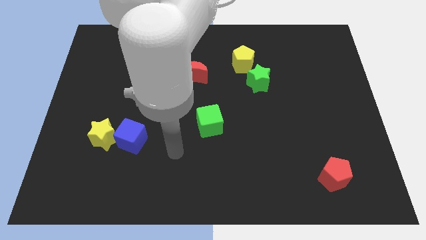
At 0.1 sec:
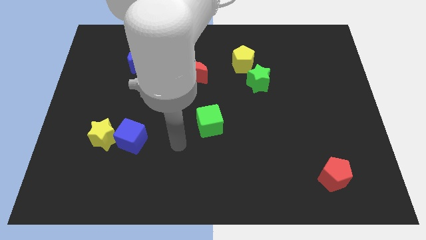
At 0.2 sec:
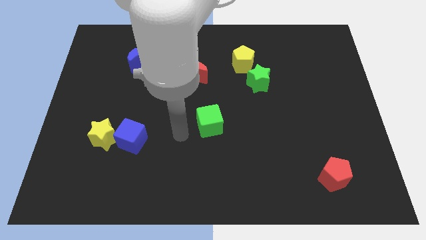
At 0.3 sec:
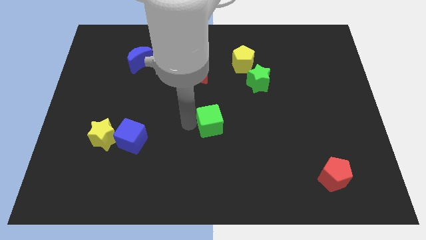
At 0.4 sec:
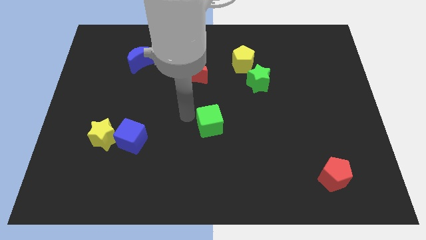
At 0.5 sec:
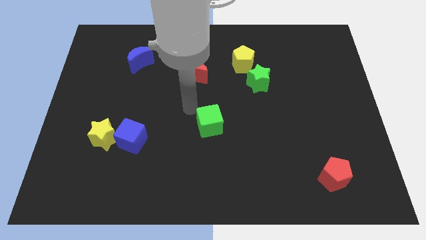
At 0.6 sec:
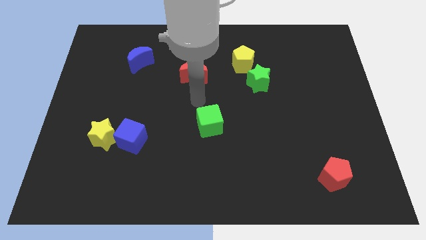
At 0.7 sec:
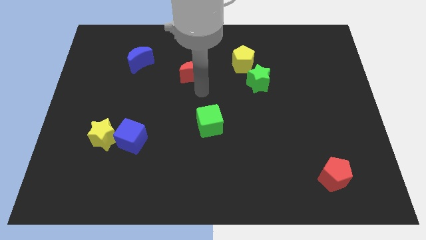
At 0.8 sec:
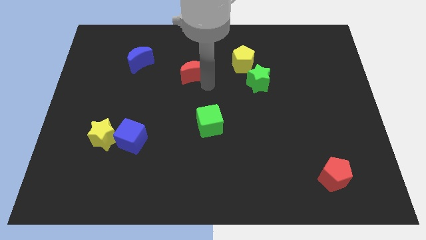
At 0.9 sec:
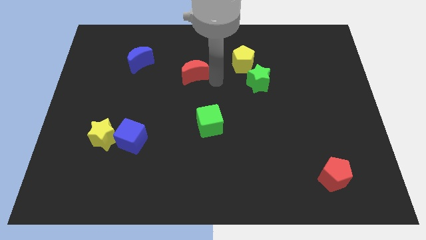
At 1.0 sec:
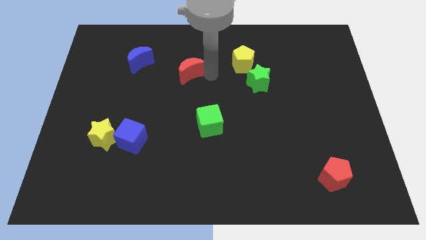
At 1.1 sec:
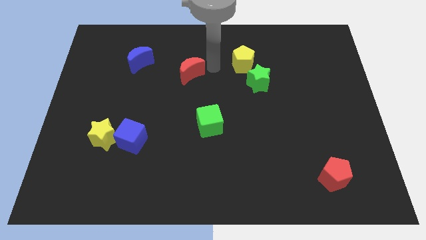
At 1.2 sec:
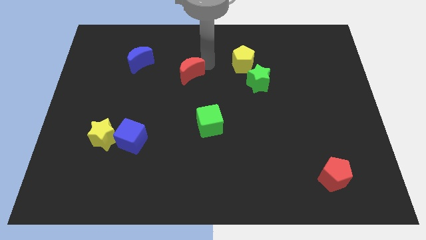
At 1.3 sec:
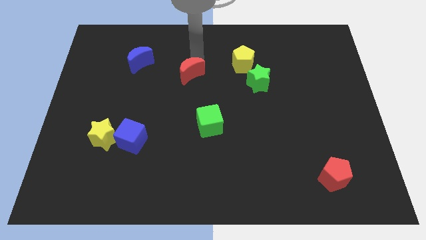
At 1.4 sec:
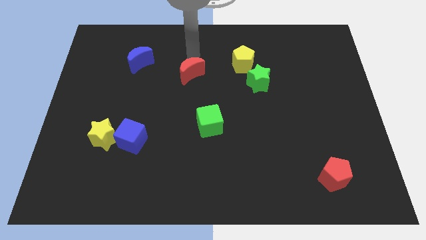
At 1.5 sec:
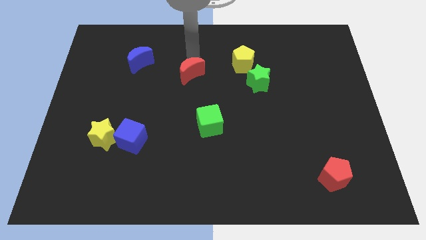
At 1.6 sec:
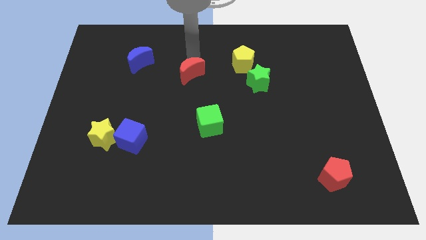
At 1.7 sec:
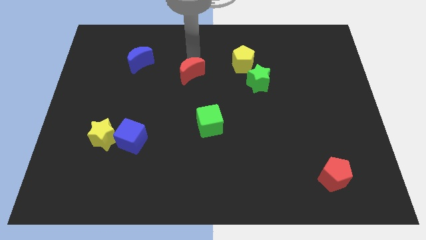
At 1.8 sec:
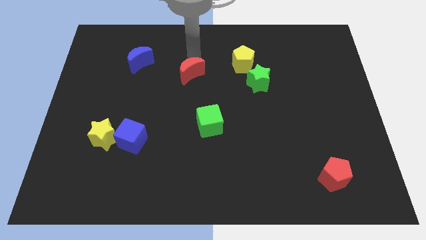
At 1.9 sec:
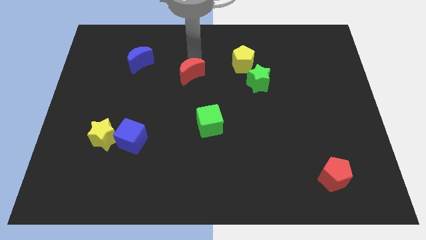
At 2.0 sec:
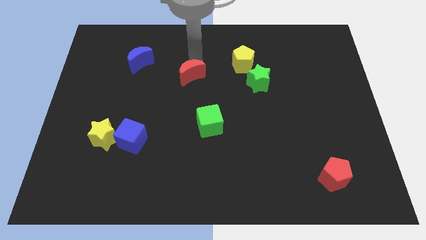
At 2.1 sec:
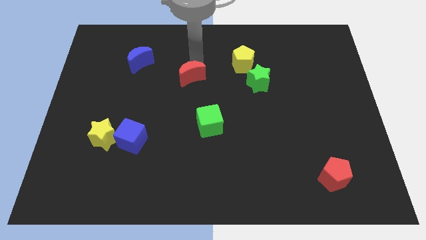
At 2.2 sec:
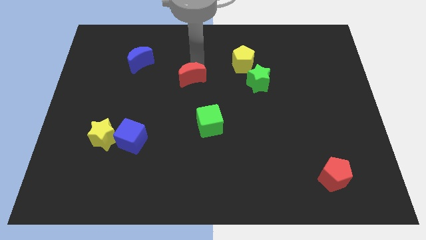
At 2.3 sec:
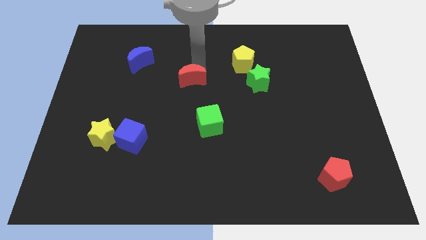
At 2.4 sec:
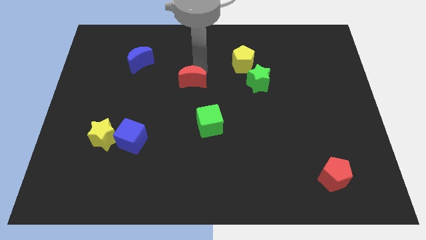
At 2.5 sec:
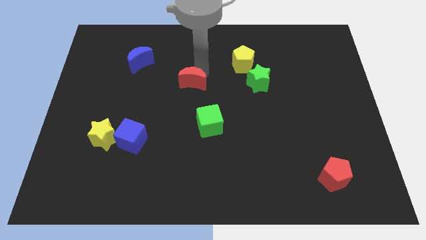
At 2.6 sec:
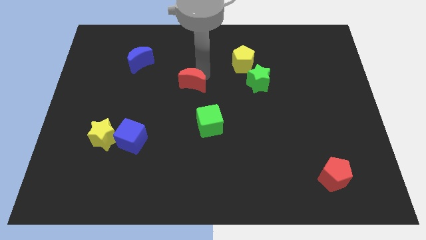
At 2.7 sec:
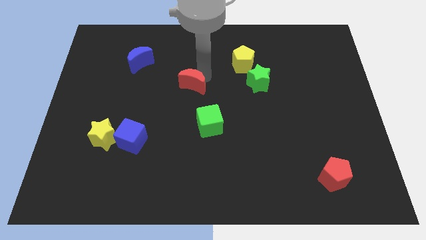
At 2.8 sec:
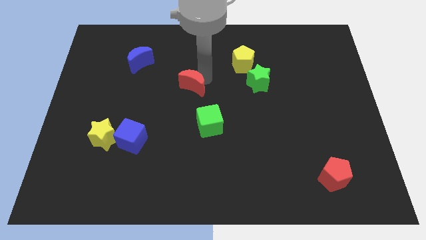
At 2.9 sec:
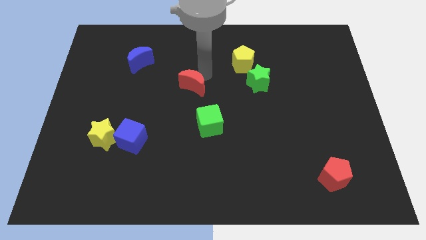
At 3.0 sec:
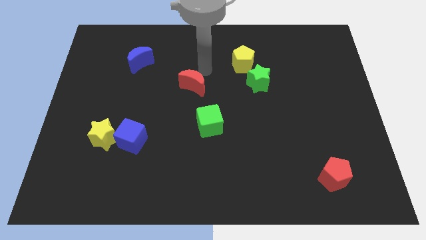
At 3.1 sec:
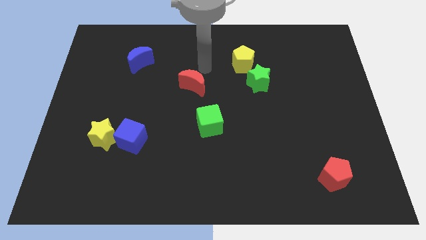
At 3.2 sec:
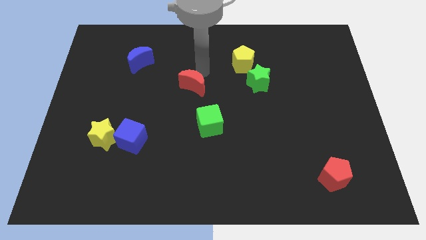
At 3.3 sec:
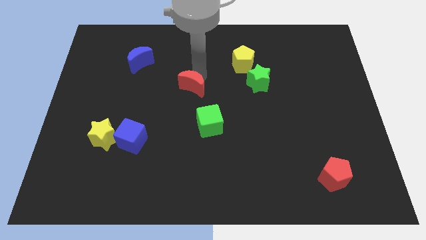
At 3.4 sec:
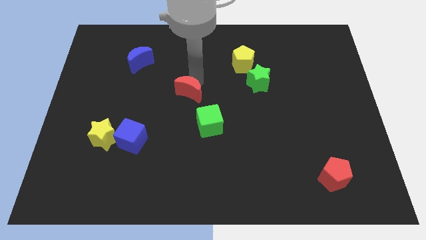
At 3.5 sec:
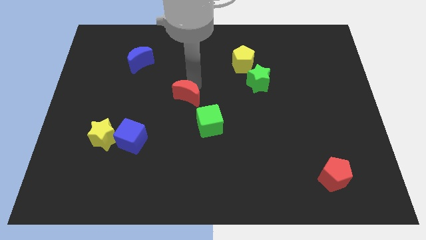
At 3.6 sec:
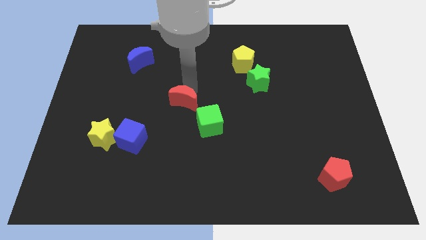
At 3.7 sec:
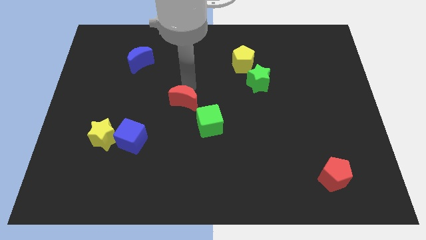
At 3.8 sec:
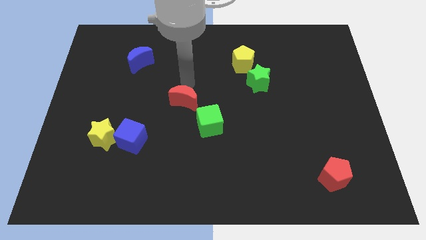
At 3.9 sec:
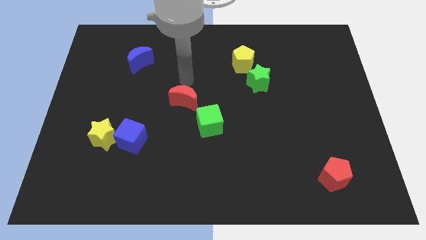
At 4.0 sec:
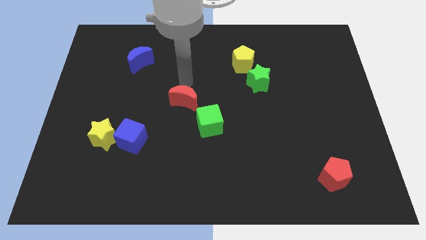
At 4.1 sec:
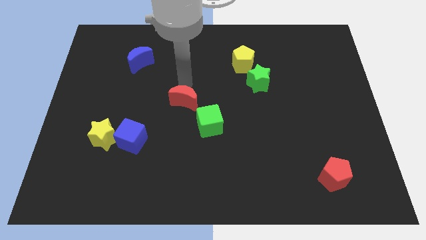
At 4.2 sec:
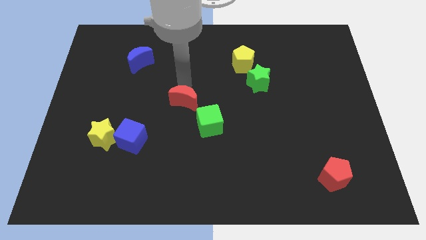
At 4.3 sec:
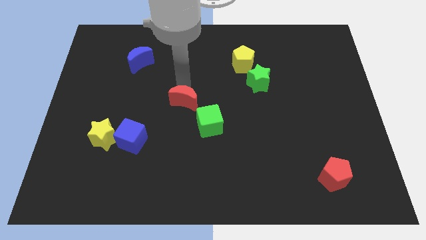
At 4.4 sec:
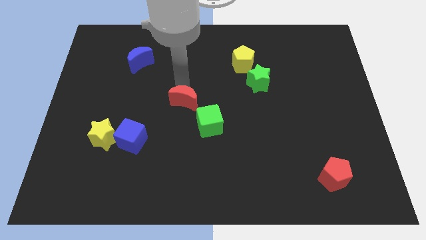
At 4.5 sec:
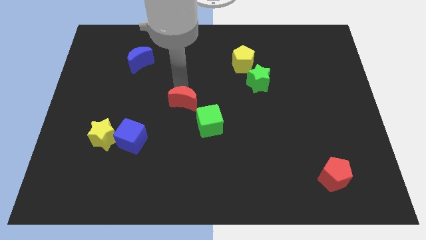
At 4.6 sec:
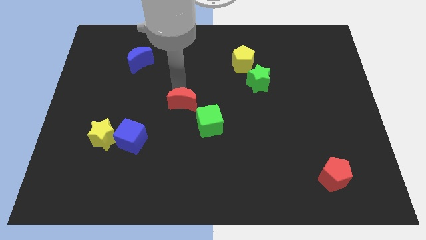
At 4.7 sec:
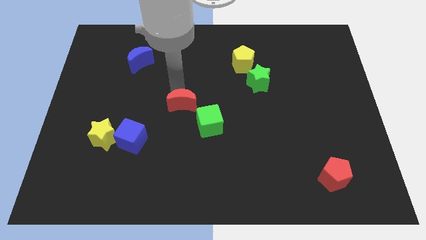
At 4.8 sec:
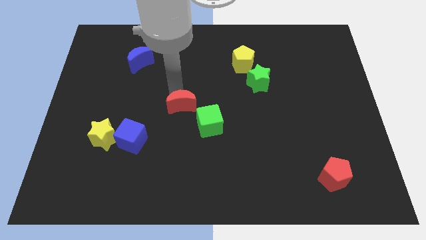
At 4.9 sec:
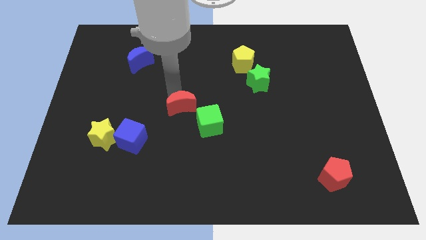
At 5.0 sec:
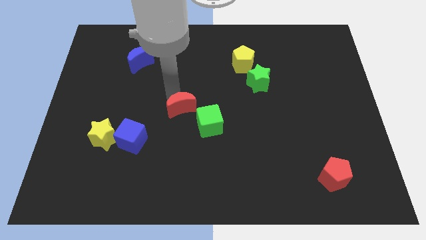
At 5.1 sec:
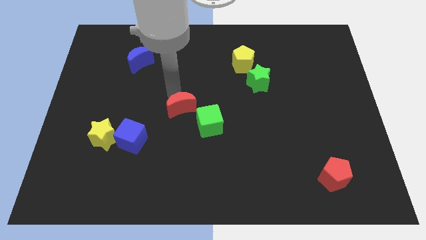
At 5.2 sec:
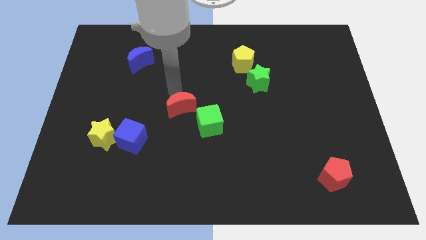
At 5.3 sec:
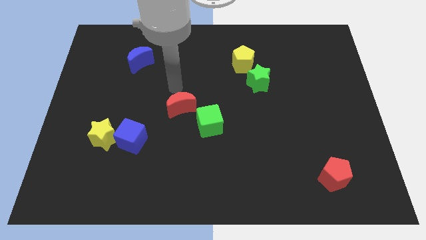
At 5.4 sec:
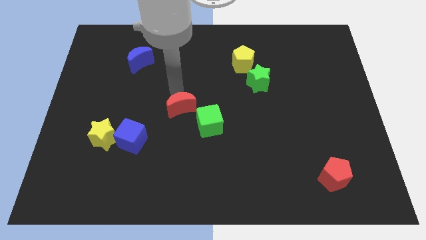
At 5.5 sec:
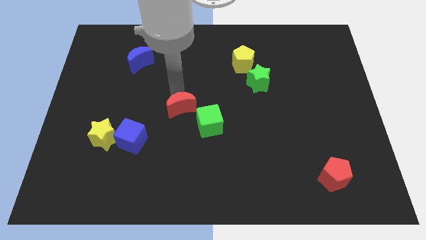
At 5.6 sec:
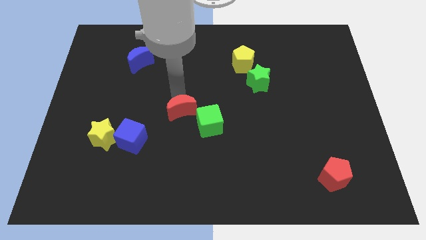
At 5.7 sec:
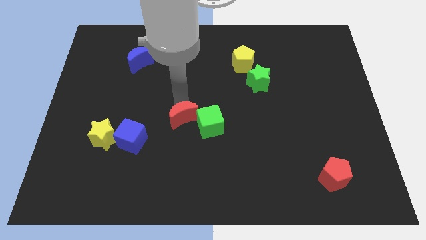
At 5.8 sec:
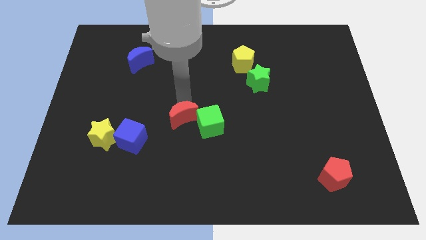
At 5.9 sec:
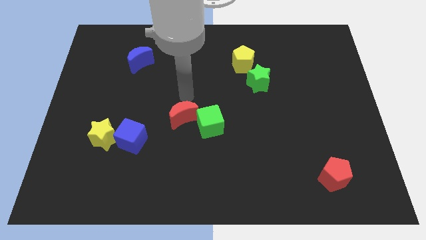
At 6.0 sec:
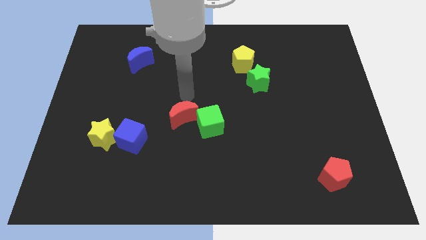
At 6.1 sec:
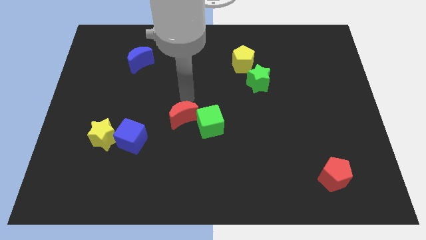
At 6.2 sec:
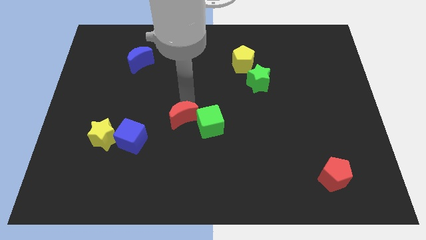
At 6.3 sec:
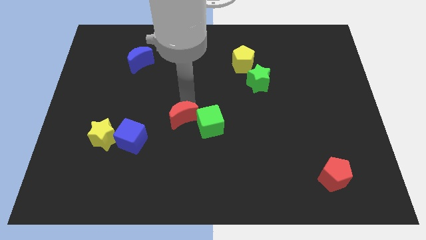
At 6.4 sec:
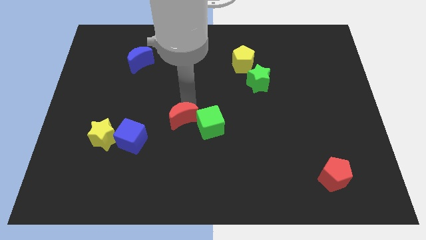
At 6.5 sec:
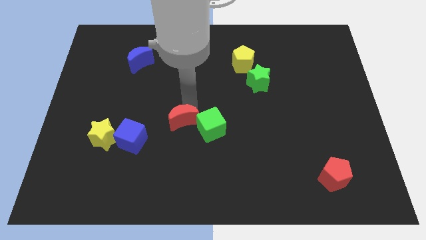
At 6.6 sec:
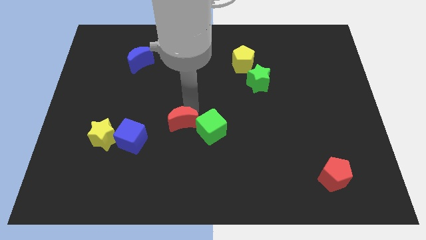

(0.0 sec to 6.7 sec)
move the red moon to the right of the blue cube
